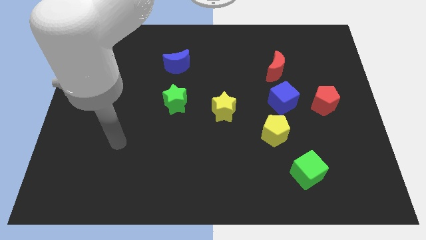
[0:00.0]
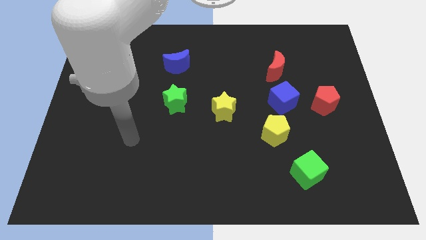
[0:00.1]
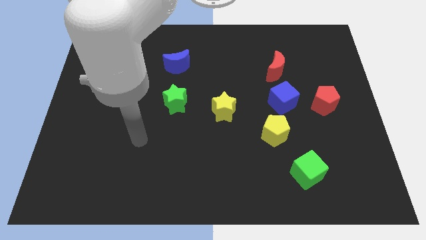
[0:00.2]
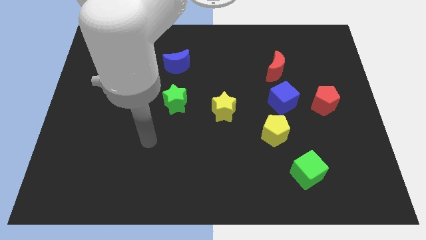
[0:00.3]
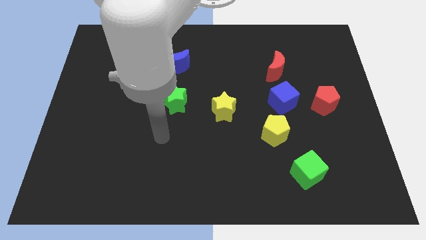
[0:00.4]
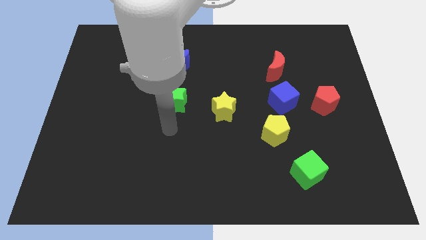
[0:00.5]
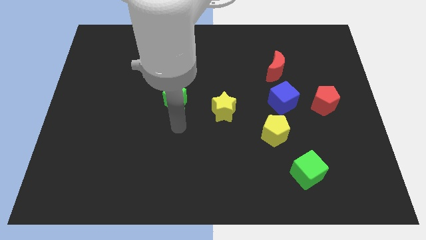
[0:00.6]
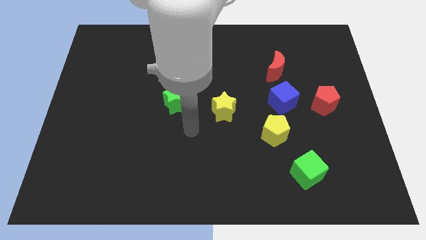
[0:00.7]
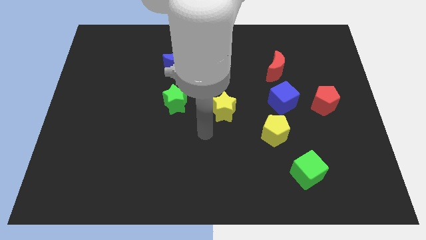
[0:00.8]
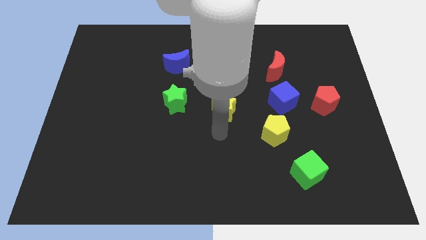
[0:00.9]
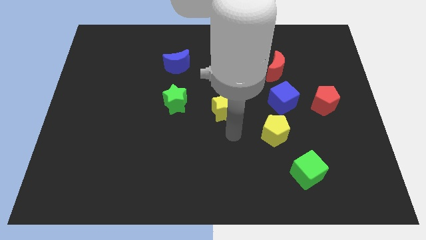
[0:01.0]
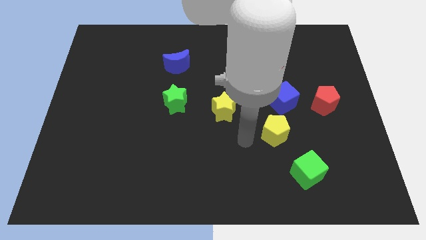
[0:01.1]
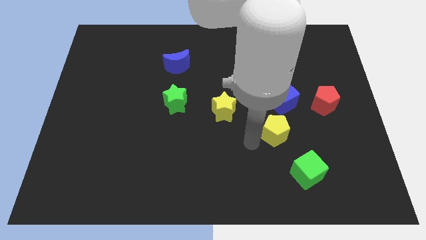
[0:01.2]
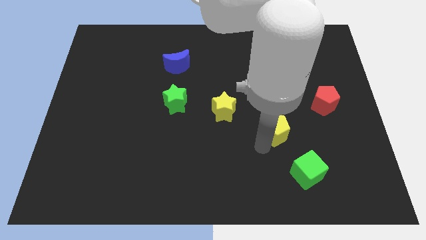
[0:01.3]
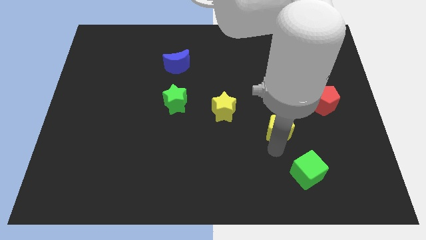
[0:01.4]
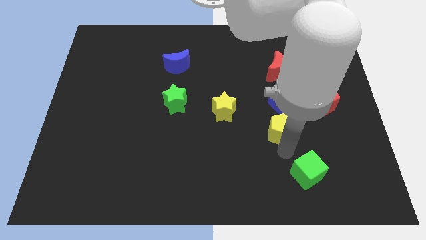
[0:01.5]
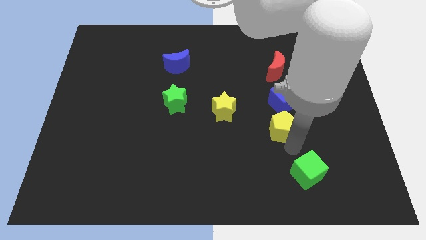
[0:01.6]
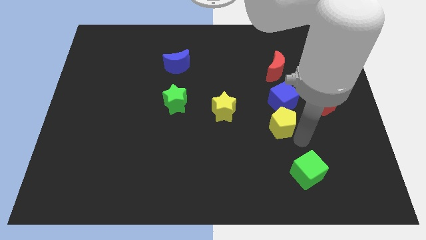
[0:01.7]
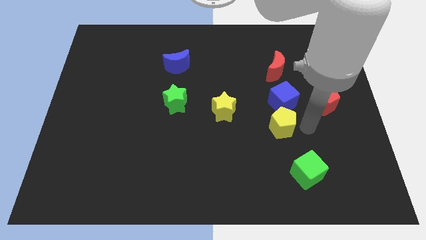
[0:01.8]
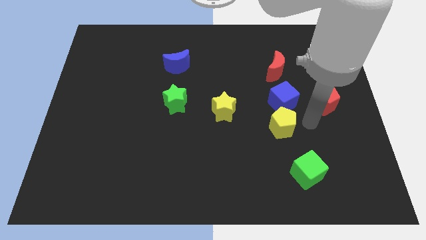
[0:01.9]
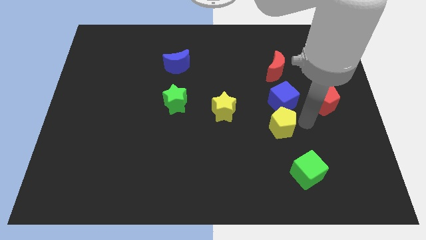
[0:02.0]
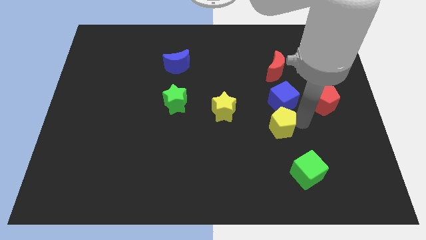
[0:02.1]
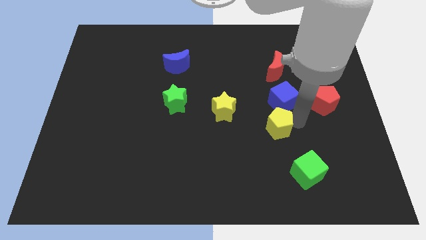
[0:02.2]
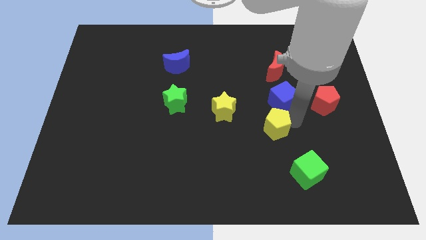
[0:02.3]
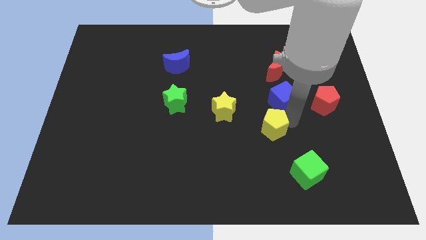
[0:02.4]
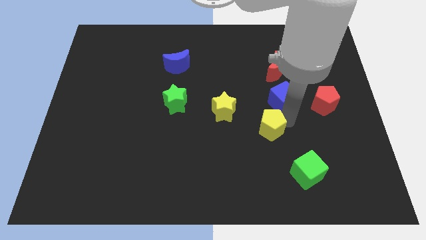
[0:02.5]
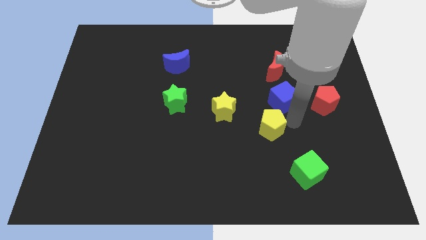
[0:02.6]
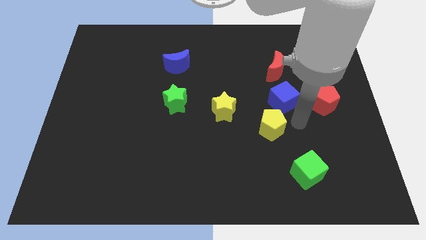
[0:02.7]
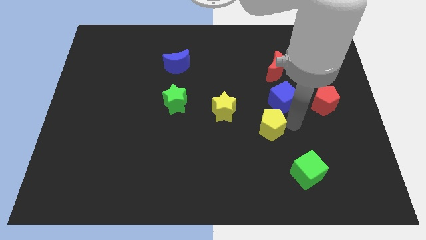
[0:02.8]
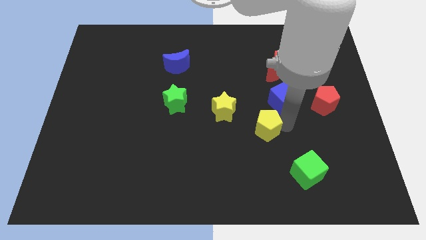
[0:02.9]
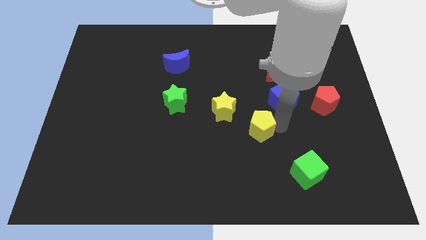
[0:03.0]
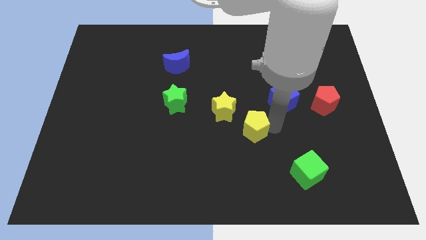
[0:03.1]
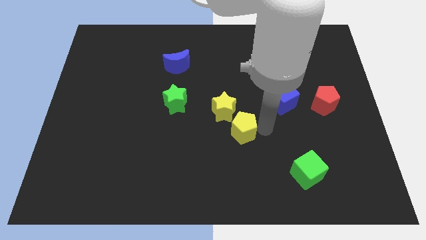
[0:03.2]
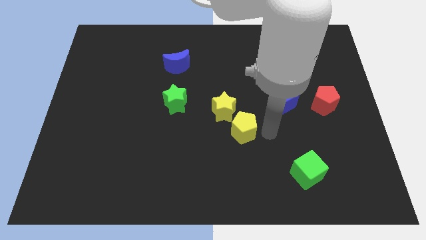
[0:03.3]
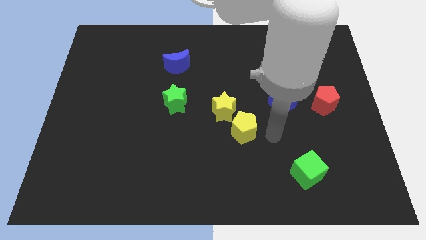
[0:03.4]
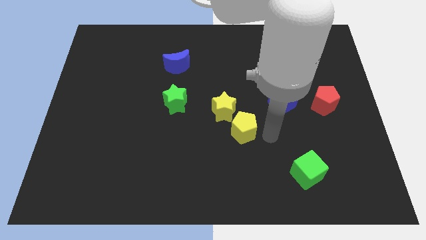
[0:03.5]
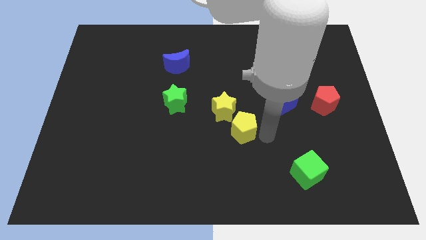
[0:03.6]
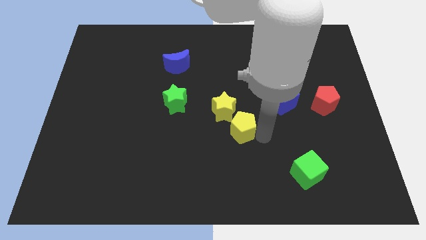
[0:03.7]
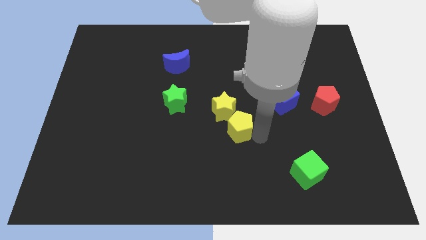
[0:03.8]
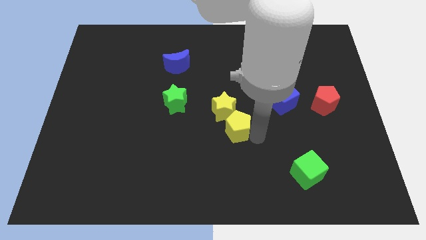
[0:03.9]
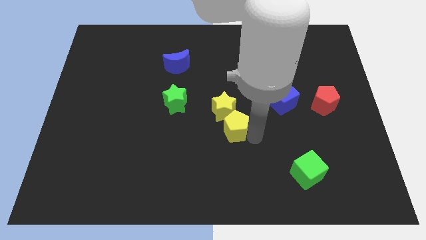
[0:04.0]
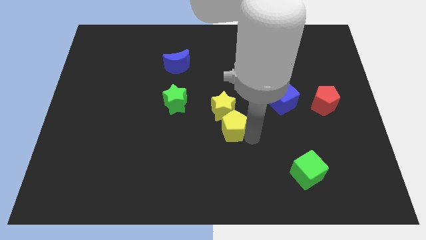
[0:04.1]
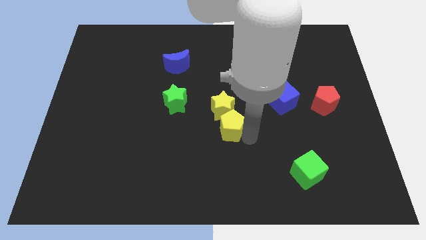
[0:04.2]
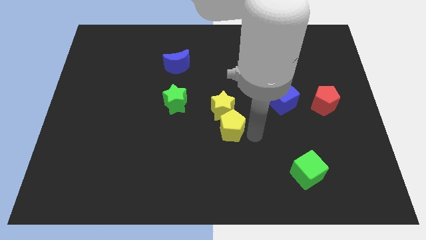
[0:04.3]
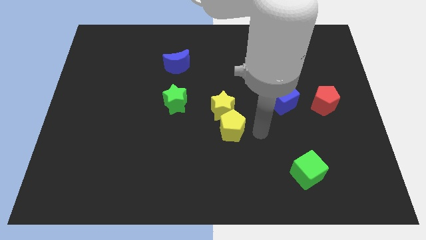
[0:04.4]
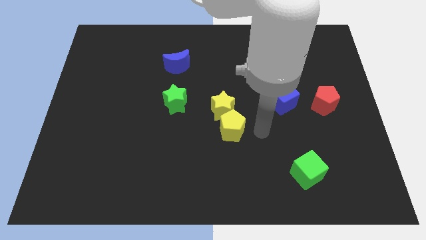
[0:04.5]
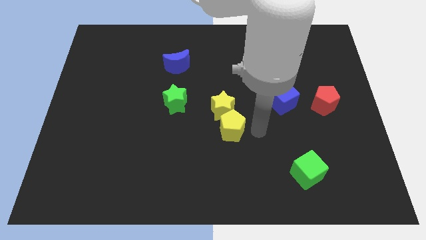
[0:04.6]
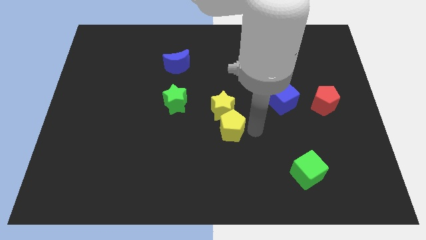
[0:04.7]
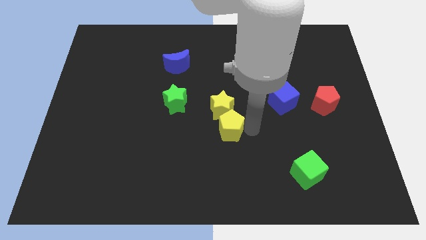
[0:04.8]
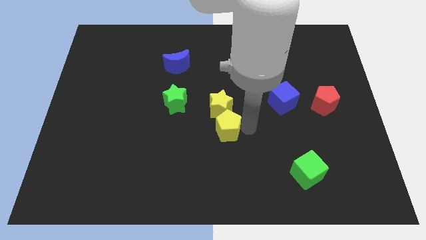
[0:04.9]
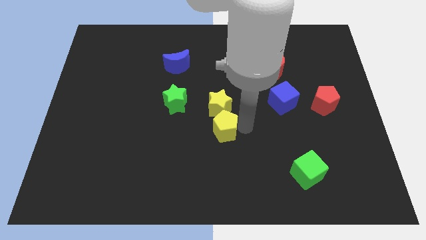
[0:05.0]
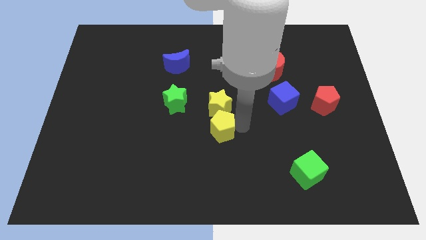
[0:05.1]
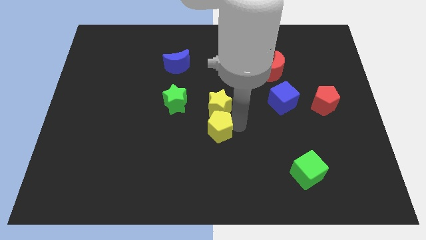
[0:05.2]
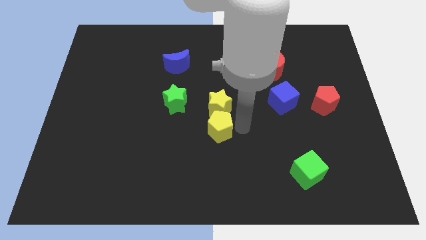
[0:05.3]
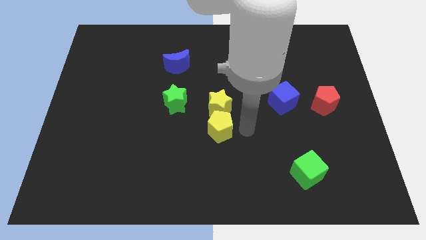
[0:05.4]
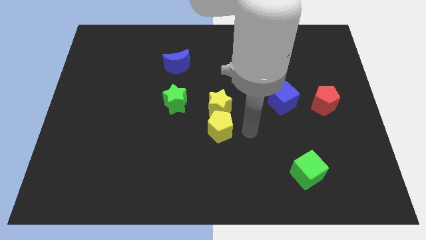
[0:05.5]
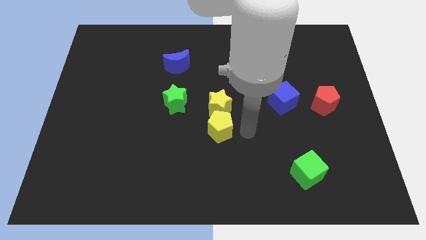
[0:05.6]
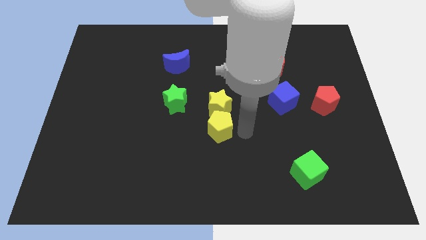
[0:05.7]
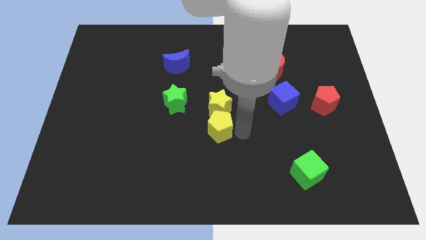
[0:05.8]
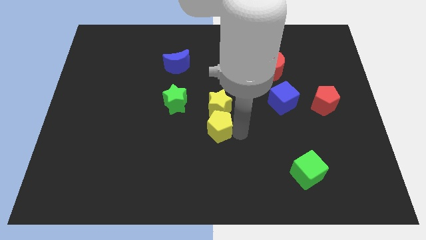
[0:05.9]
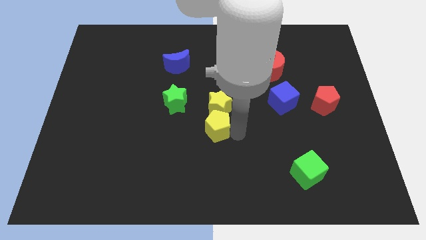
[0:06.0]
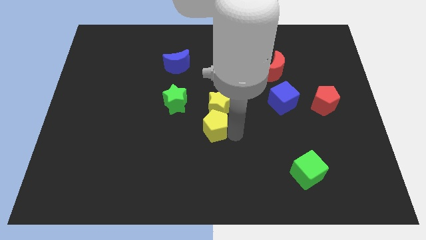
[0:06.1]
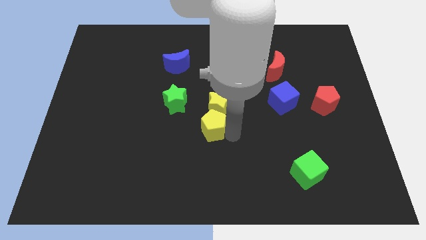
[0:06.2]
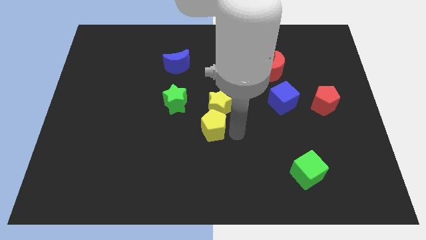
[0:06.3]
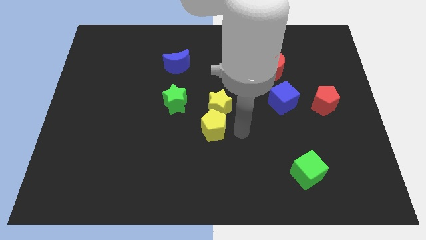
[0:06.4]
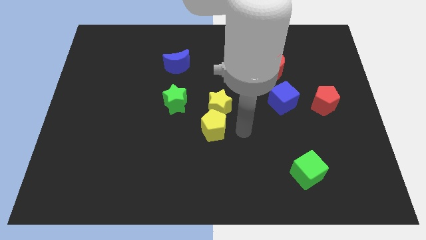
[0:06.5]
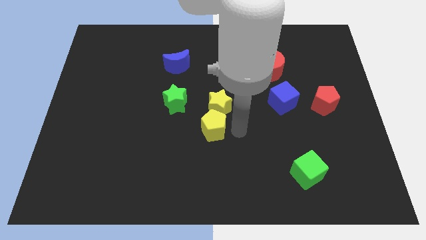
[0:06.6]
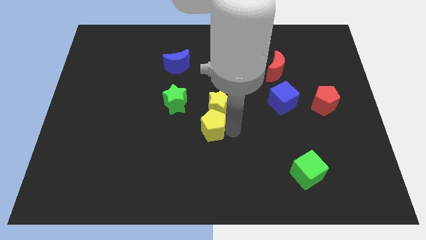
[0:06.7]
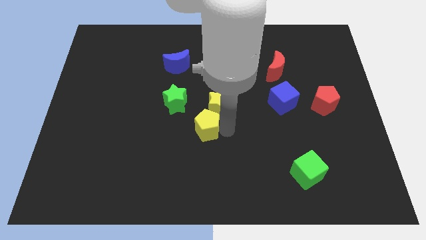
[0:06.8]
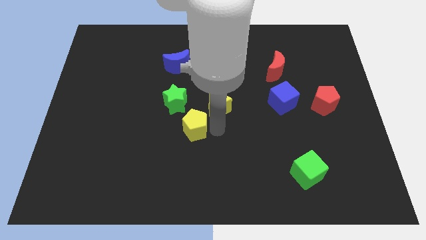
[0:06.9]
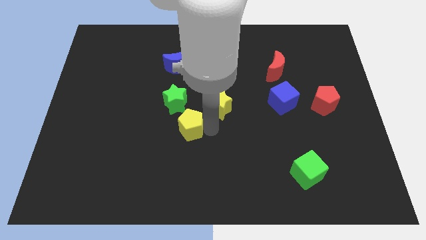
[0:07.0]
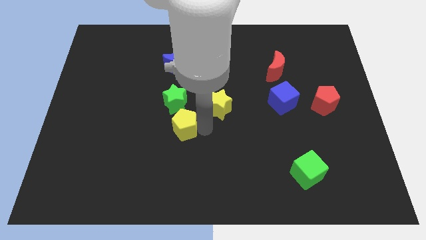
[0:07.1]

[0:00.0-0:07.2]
push the yellow pentagon to the left

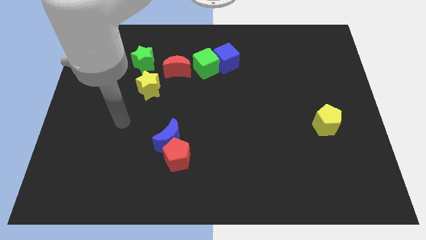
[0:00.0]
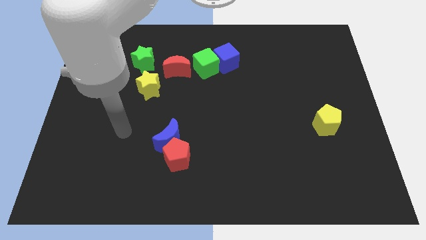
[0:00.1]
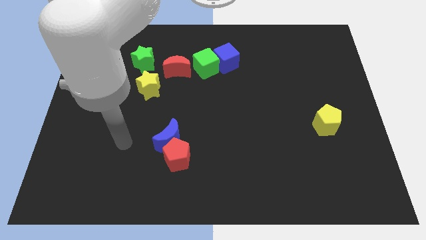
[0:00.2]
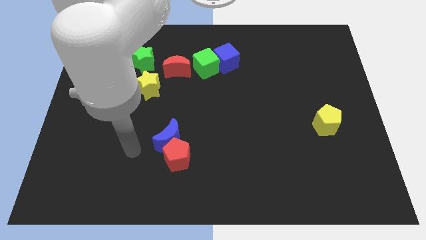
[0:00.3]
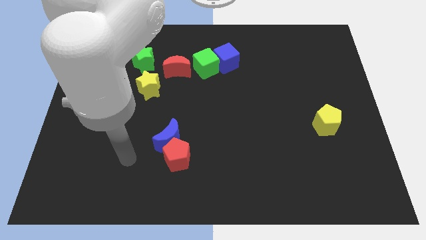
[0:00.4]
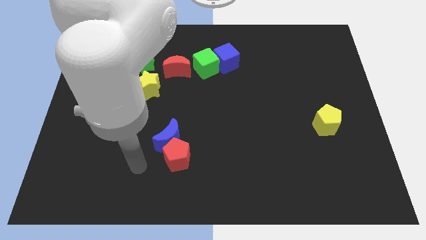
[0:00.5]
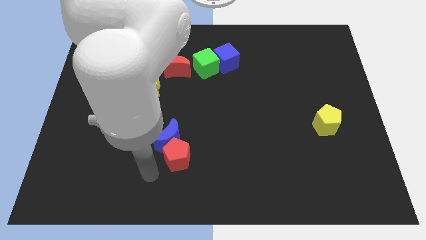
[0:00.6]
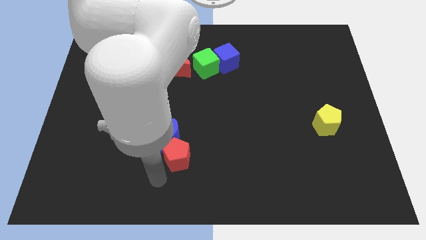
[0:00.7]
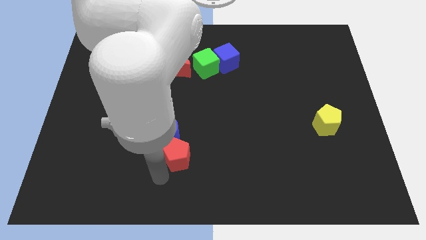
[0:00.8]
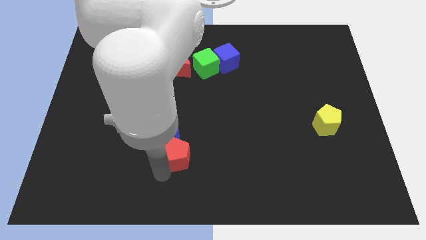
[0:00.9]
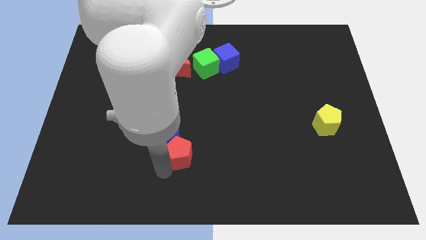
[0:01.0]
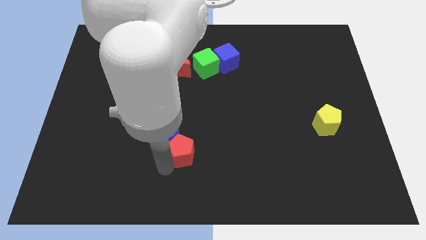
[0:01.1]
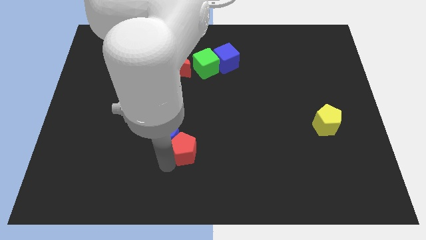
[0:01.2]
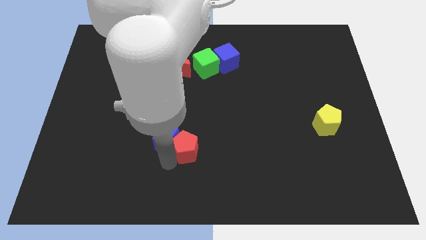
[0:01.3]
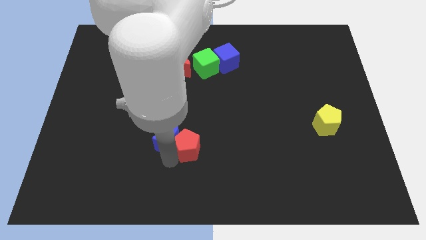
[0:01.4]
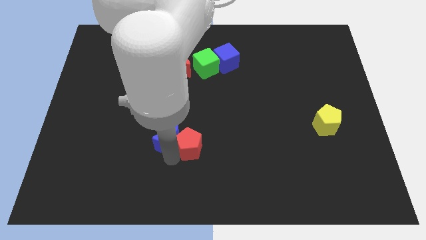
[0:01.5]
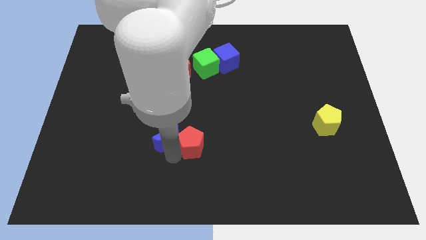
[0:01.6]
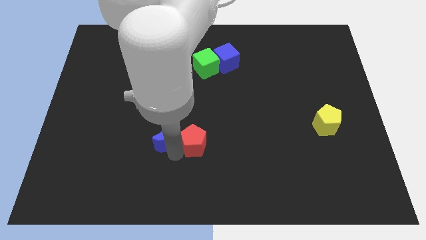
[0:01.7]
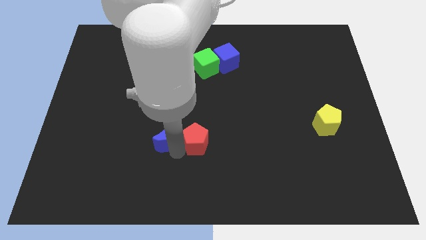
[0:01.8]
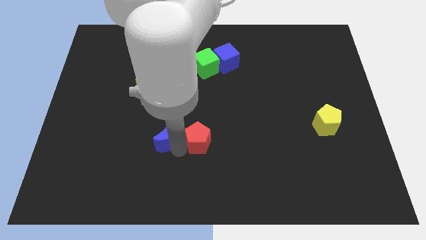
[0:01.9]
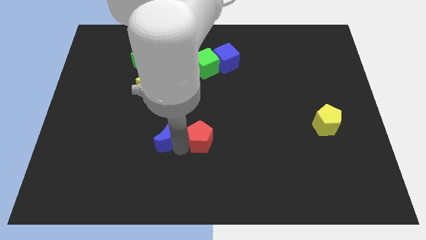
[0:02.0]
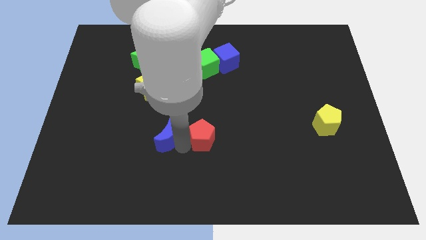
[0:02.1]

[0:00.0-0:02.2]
push the red pentagon upwards and right slightly
